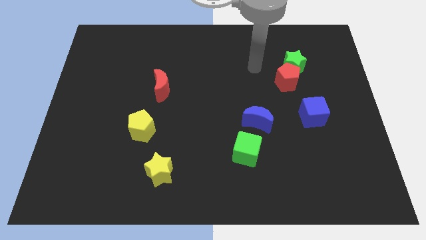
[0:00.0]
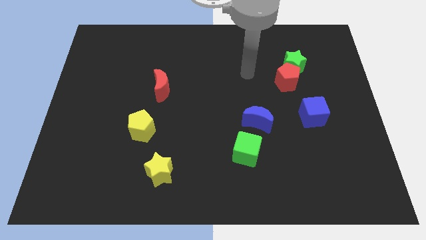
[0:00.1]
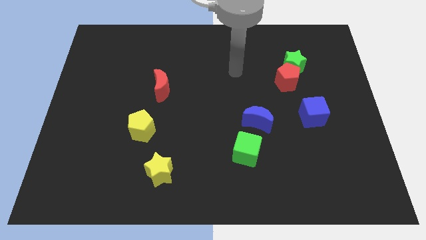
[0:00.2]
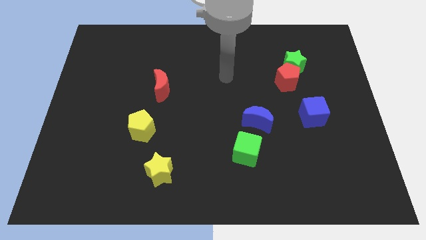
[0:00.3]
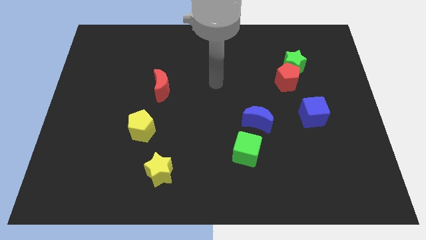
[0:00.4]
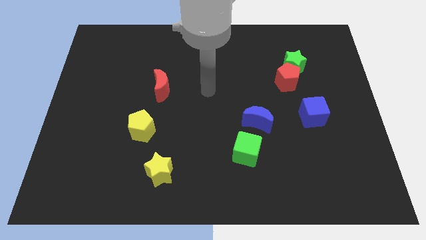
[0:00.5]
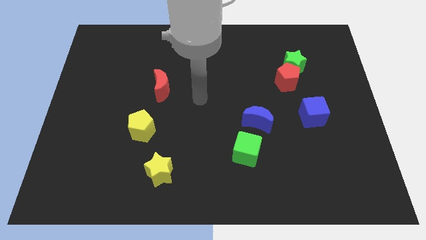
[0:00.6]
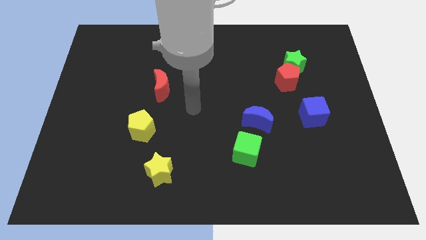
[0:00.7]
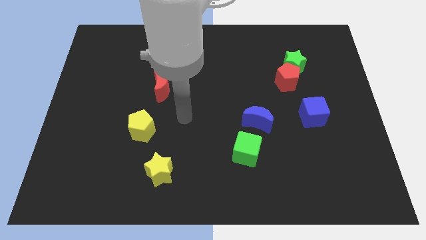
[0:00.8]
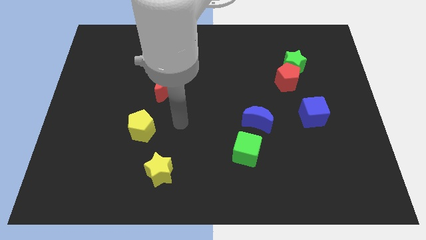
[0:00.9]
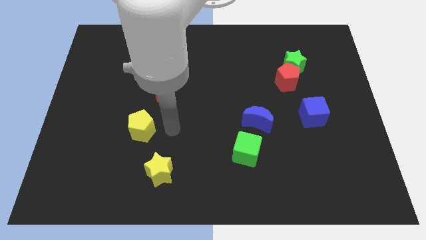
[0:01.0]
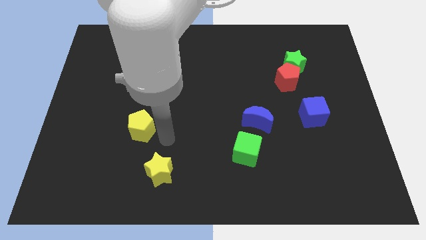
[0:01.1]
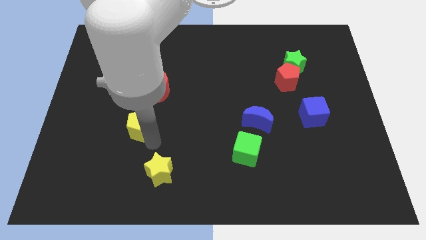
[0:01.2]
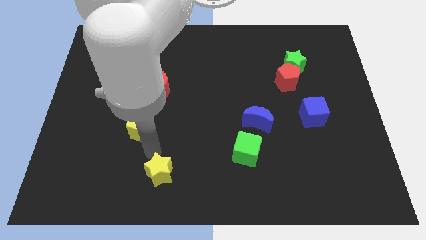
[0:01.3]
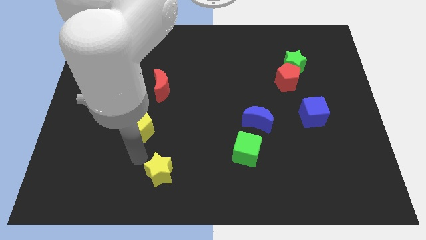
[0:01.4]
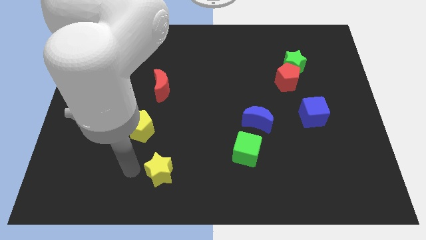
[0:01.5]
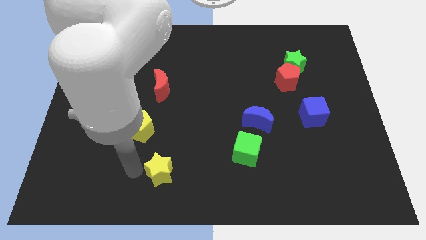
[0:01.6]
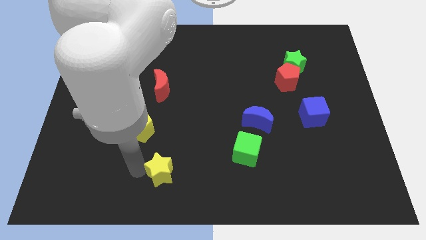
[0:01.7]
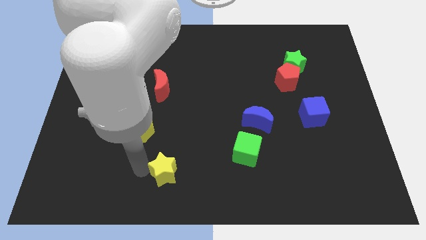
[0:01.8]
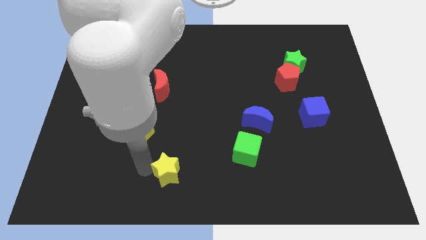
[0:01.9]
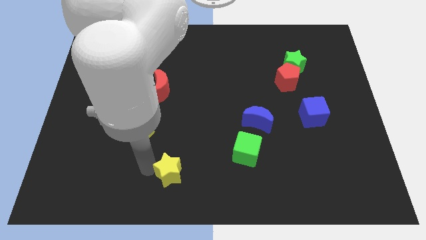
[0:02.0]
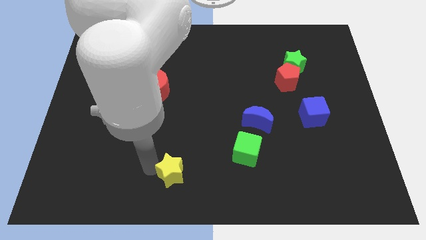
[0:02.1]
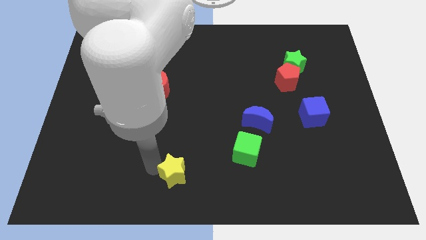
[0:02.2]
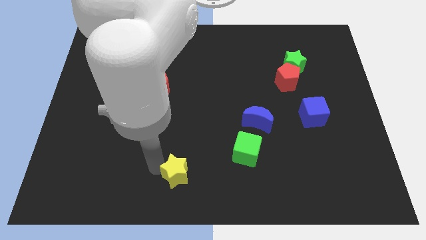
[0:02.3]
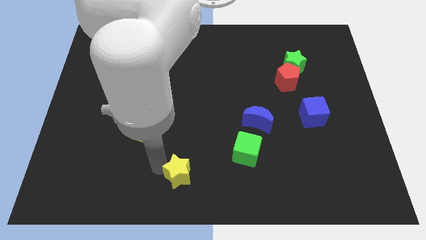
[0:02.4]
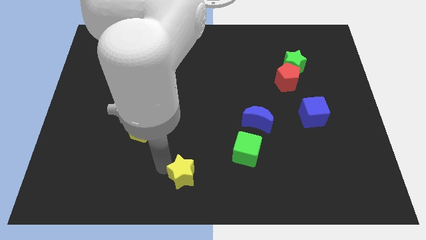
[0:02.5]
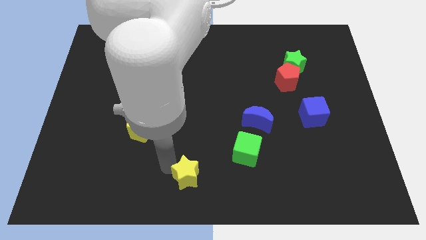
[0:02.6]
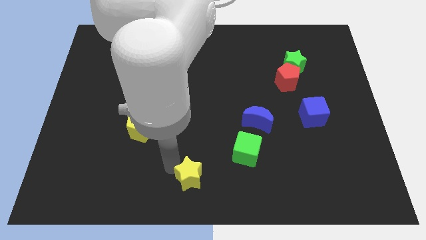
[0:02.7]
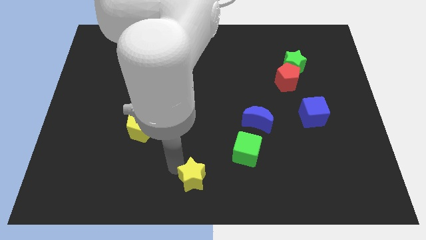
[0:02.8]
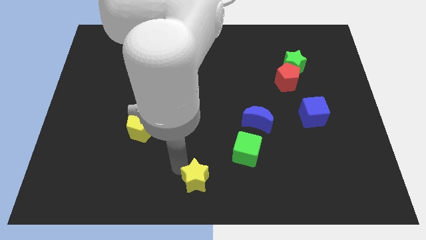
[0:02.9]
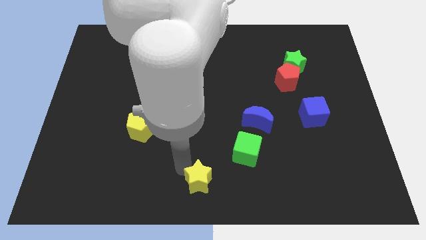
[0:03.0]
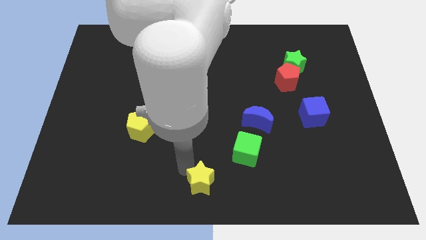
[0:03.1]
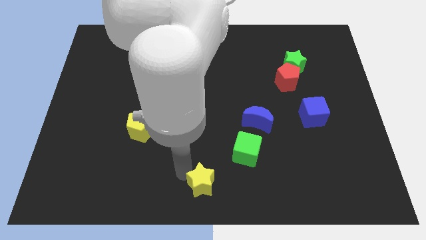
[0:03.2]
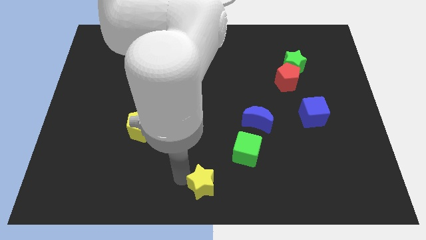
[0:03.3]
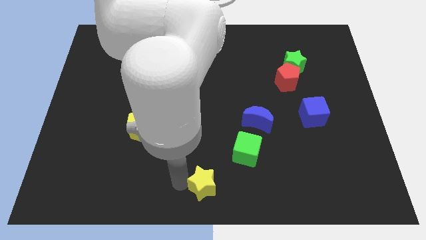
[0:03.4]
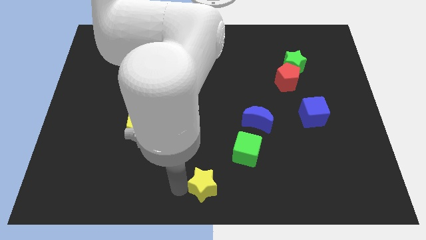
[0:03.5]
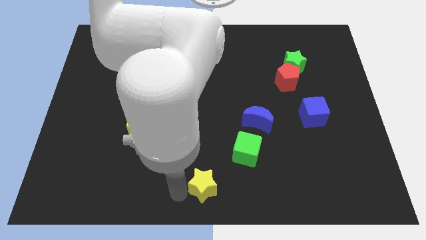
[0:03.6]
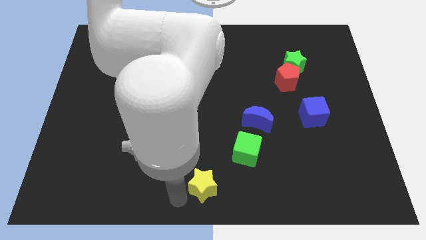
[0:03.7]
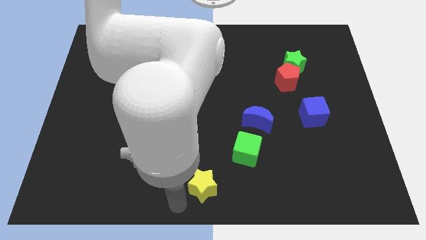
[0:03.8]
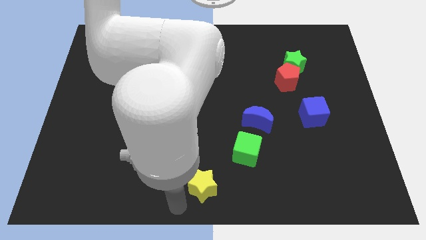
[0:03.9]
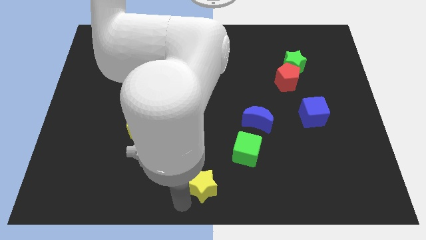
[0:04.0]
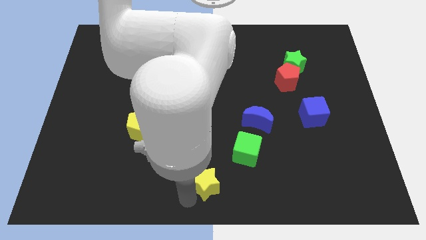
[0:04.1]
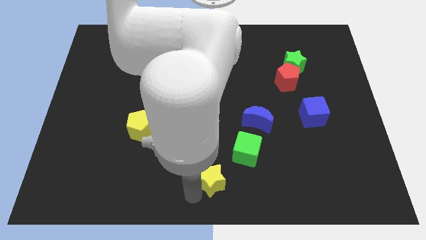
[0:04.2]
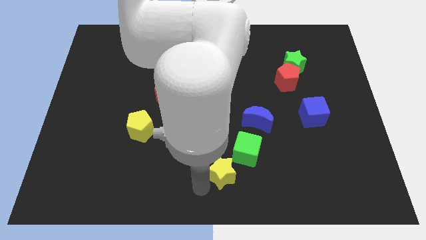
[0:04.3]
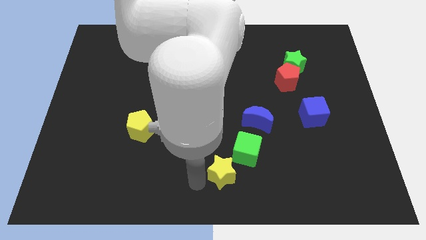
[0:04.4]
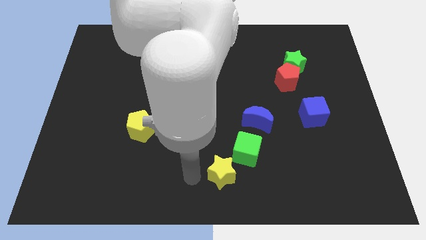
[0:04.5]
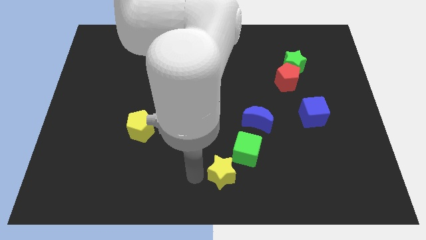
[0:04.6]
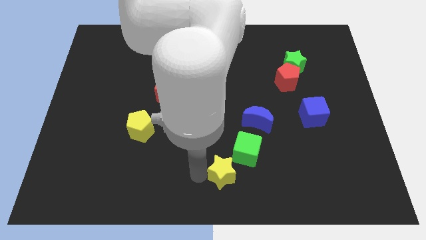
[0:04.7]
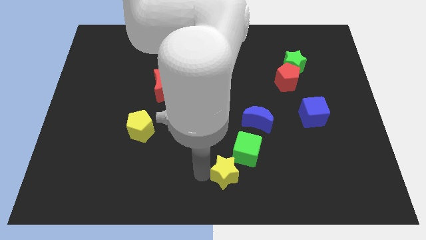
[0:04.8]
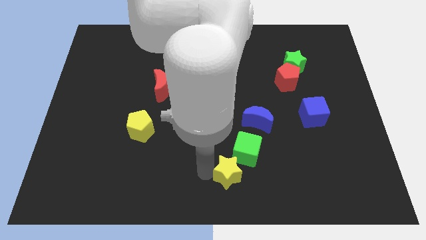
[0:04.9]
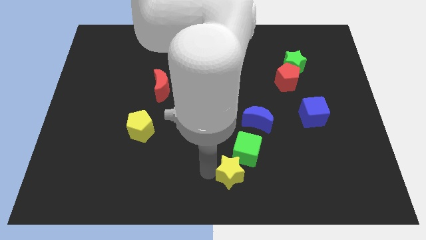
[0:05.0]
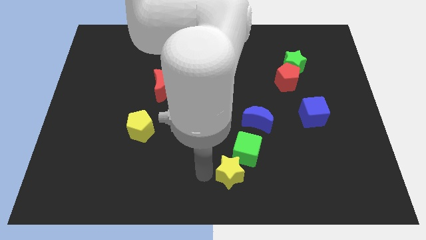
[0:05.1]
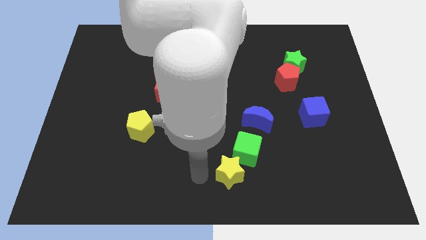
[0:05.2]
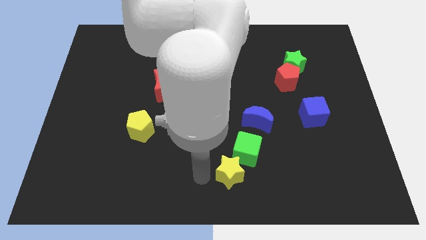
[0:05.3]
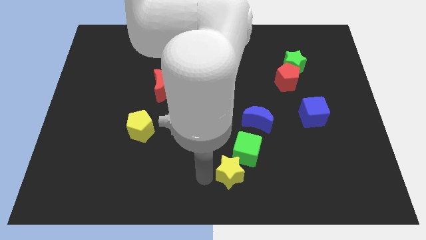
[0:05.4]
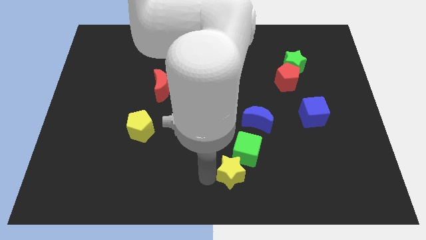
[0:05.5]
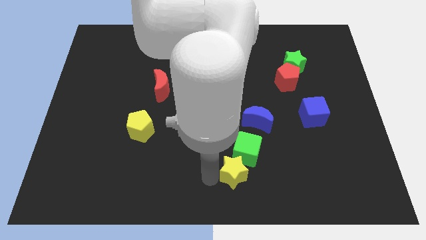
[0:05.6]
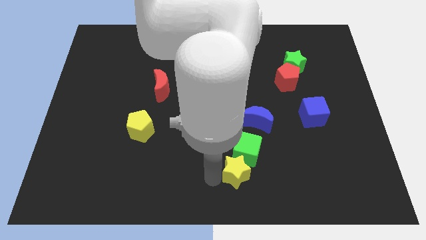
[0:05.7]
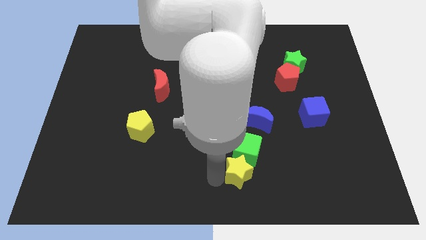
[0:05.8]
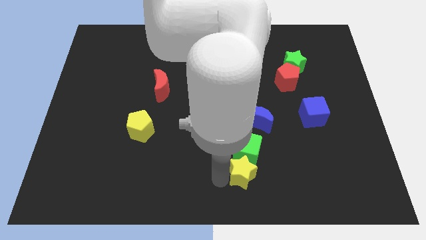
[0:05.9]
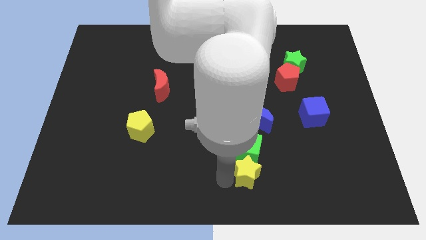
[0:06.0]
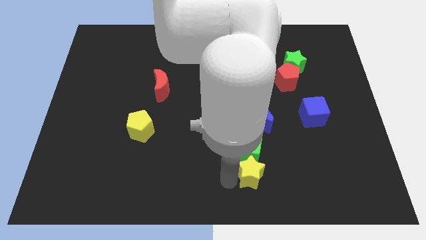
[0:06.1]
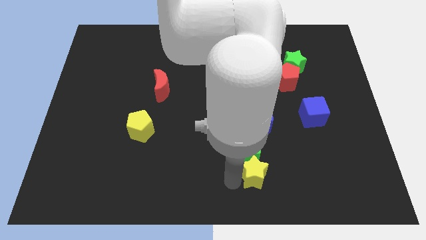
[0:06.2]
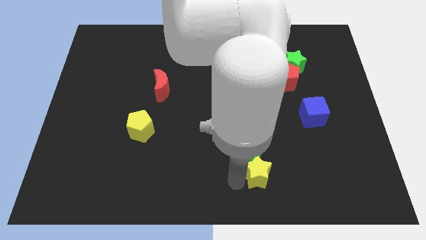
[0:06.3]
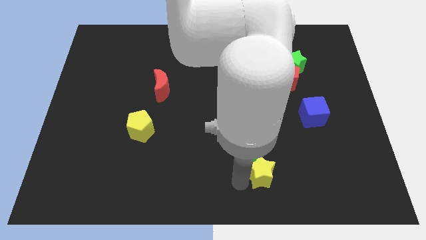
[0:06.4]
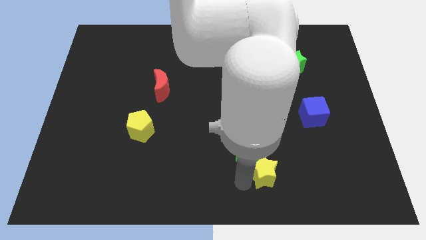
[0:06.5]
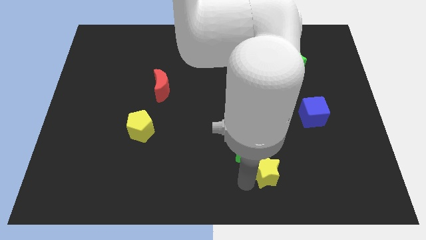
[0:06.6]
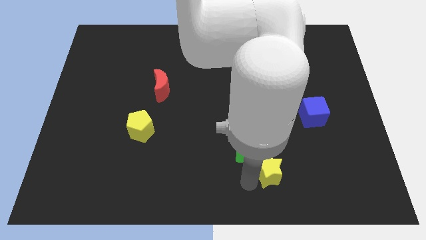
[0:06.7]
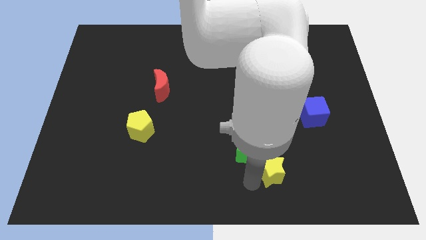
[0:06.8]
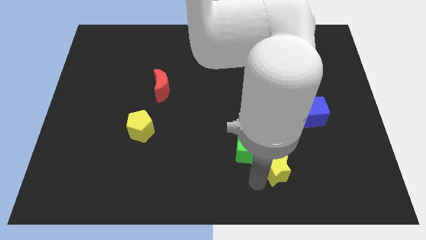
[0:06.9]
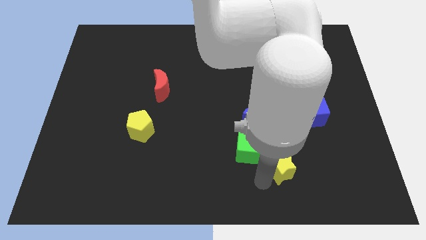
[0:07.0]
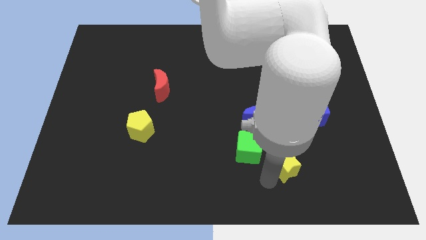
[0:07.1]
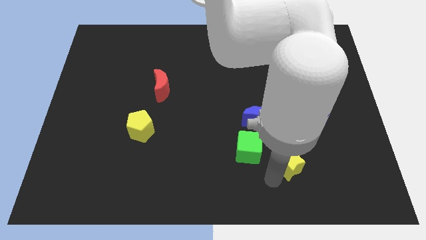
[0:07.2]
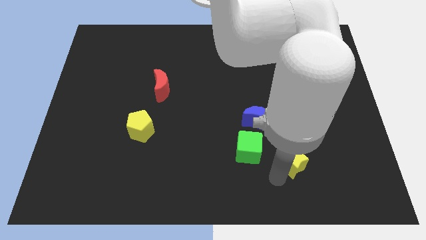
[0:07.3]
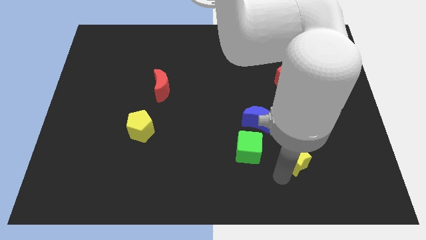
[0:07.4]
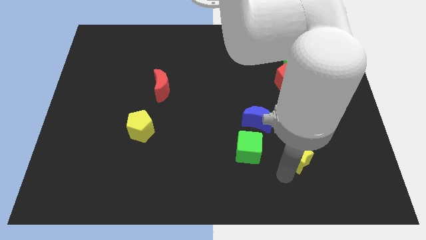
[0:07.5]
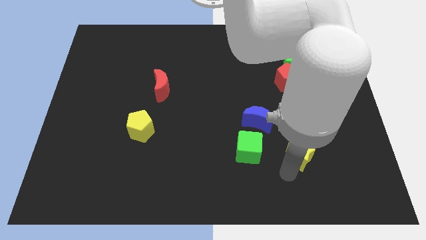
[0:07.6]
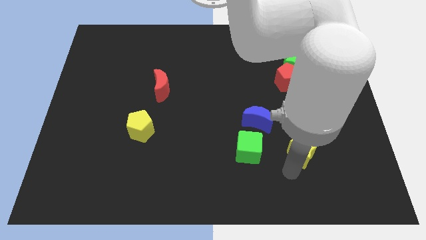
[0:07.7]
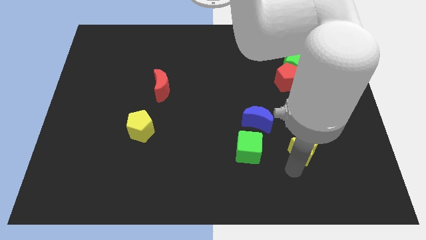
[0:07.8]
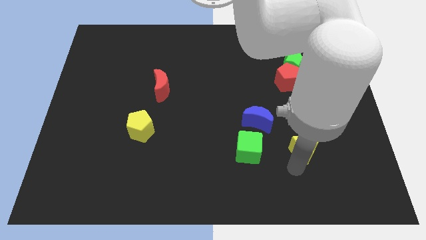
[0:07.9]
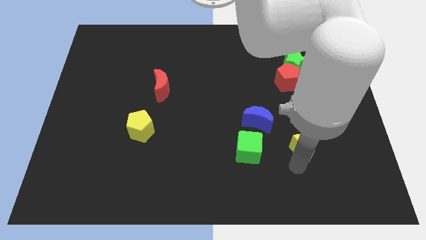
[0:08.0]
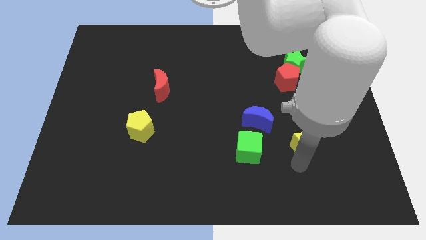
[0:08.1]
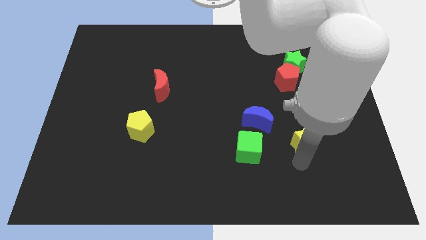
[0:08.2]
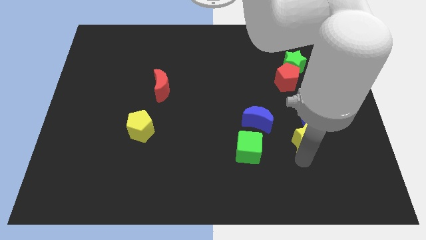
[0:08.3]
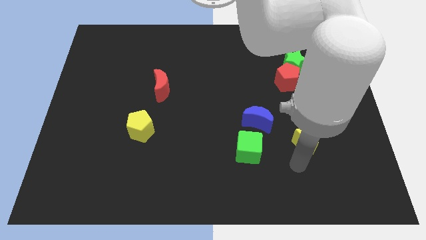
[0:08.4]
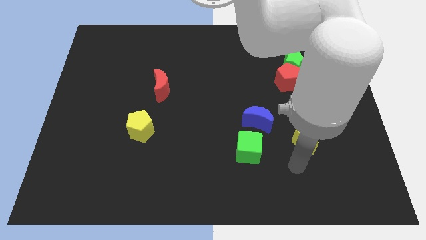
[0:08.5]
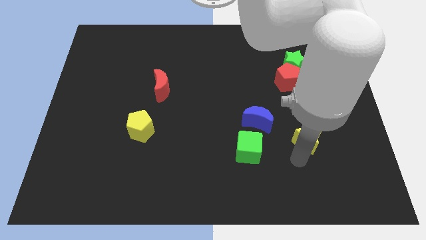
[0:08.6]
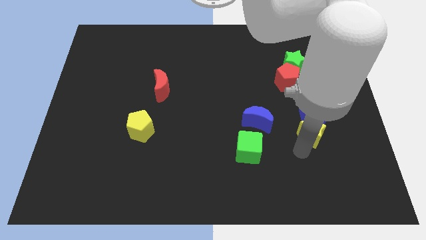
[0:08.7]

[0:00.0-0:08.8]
slide the yellow star towards the blue cube
